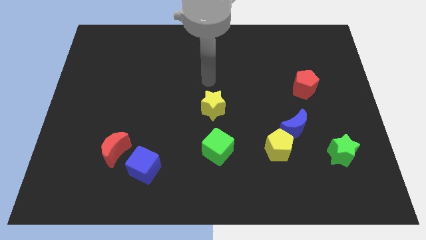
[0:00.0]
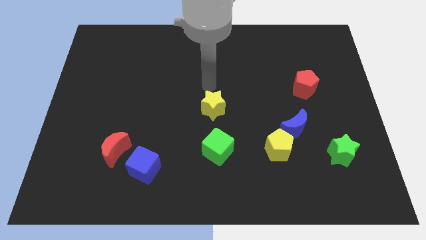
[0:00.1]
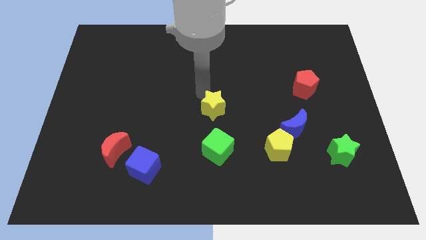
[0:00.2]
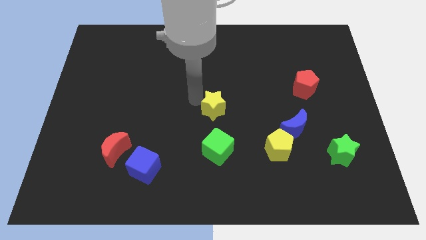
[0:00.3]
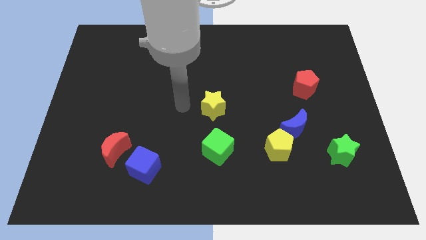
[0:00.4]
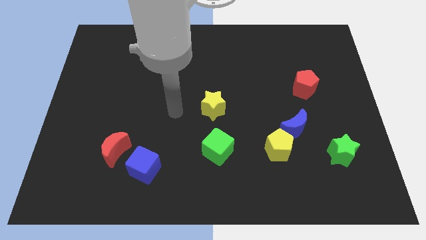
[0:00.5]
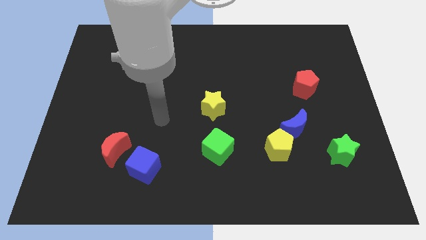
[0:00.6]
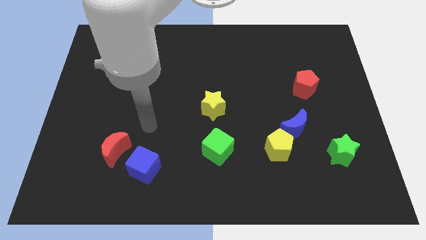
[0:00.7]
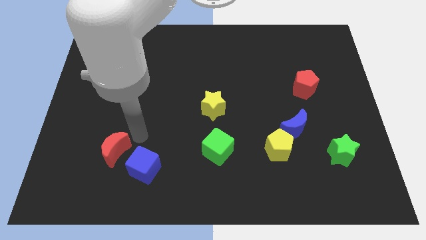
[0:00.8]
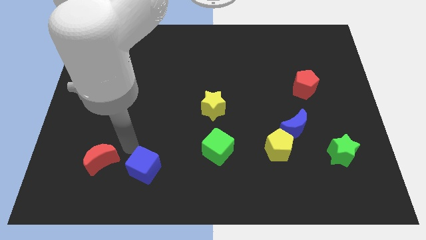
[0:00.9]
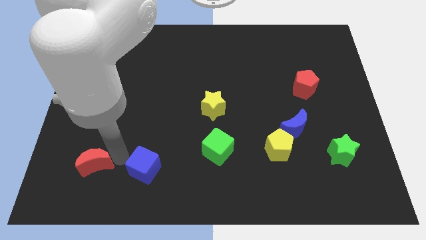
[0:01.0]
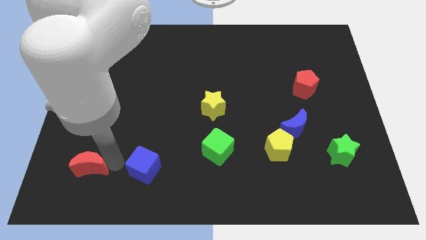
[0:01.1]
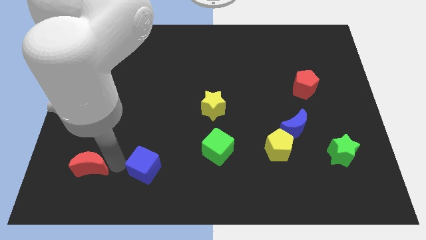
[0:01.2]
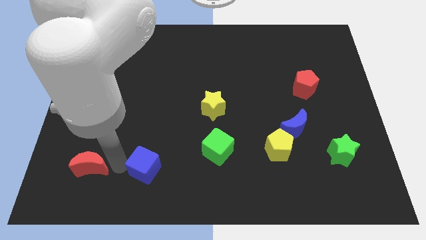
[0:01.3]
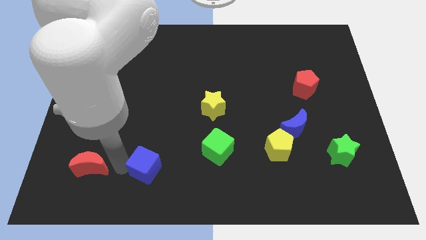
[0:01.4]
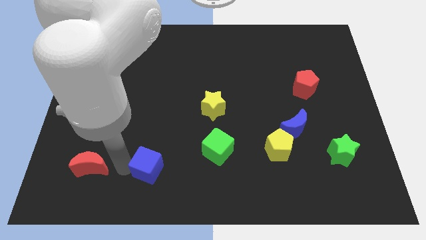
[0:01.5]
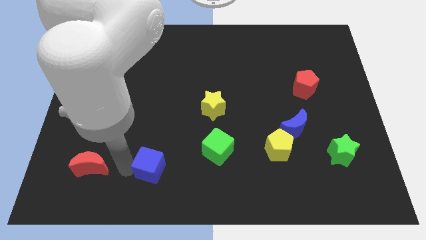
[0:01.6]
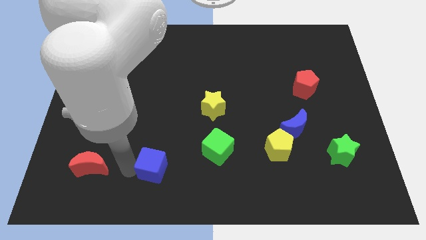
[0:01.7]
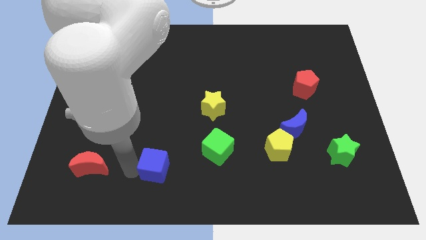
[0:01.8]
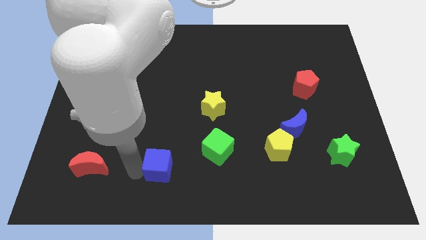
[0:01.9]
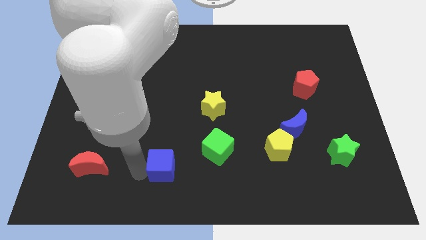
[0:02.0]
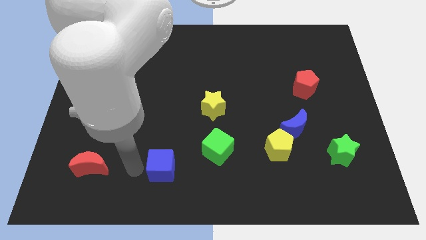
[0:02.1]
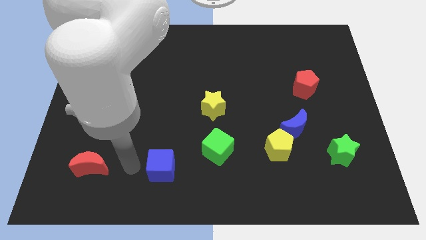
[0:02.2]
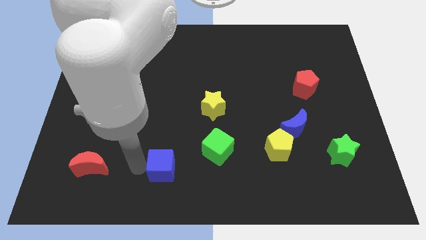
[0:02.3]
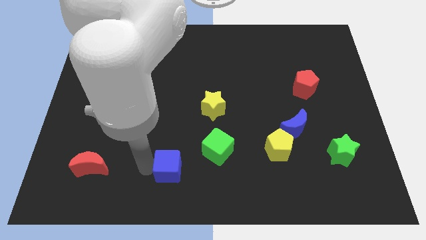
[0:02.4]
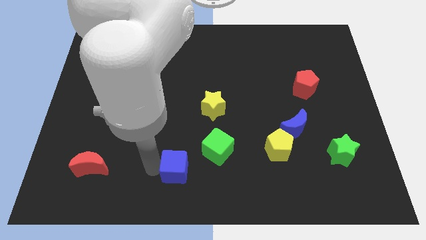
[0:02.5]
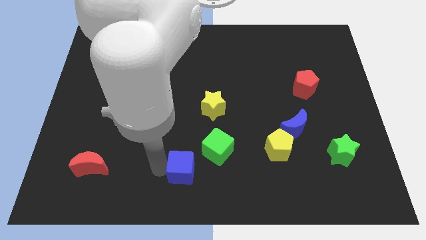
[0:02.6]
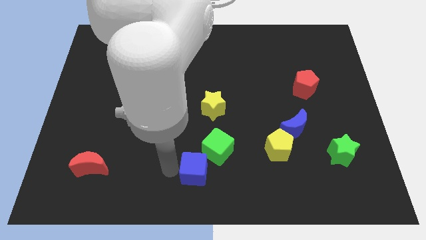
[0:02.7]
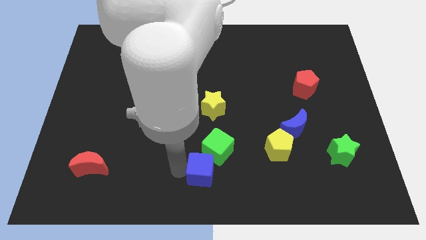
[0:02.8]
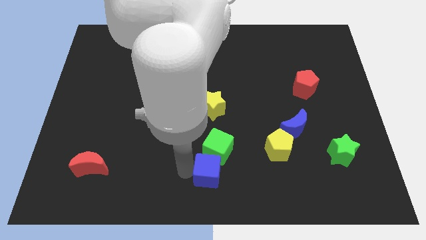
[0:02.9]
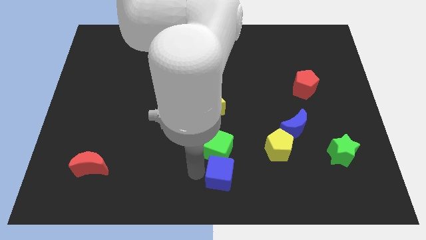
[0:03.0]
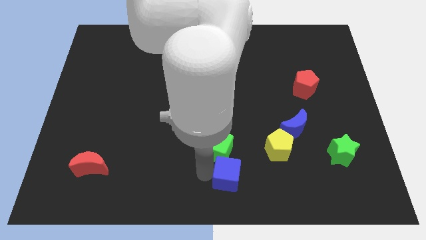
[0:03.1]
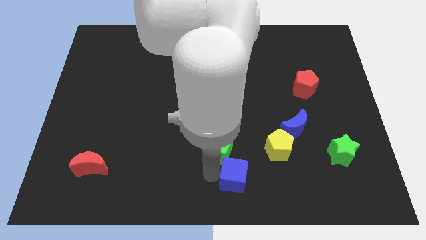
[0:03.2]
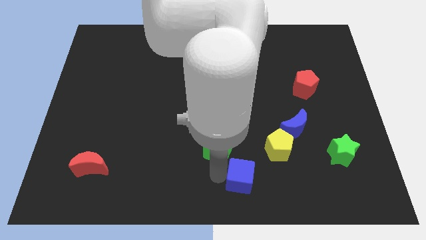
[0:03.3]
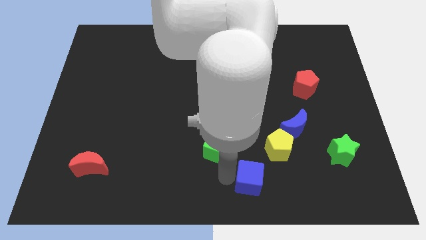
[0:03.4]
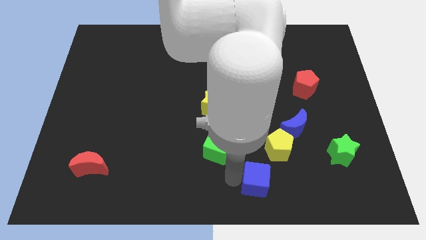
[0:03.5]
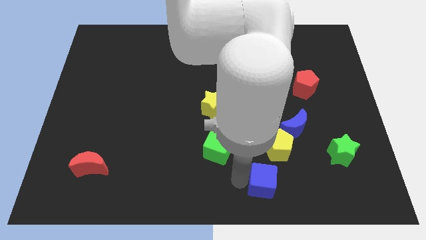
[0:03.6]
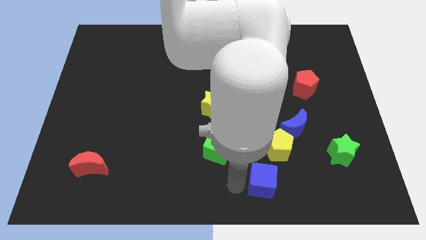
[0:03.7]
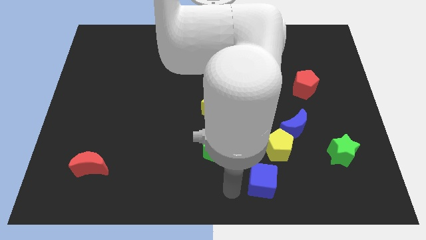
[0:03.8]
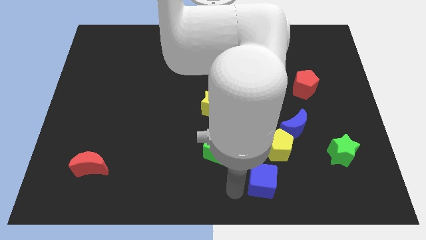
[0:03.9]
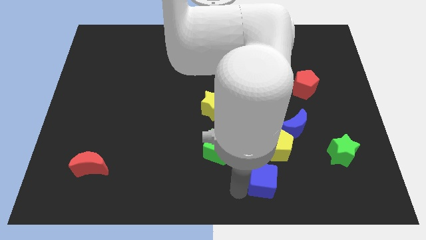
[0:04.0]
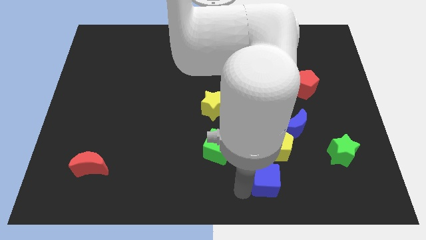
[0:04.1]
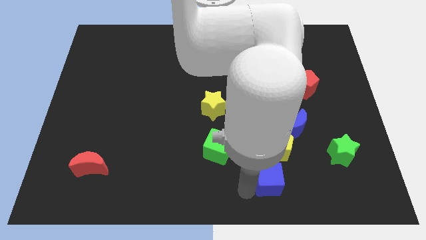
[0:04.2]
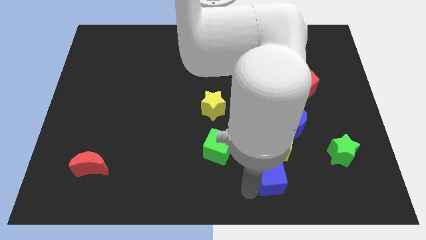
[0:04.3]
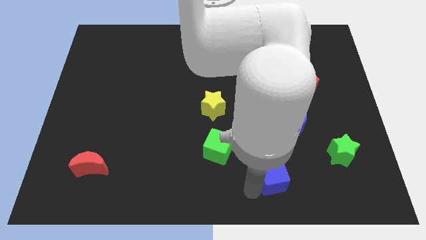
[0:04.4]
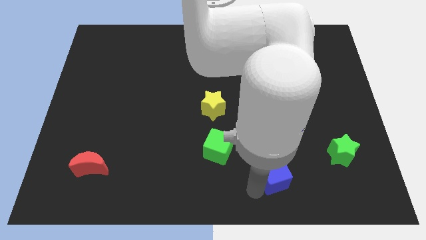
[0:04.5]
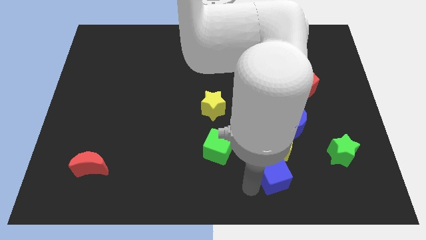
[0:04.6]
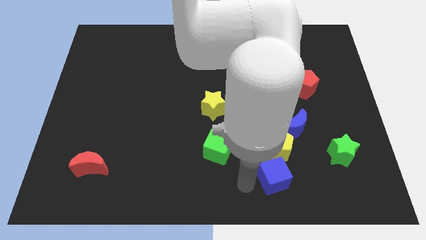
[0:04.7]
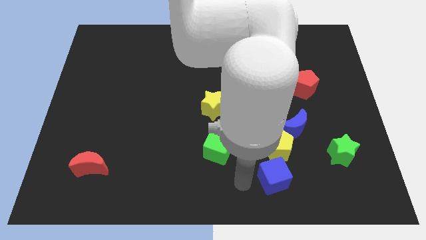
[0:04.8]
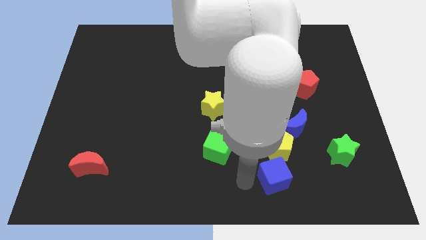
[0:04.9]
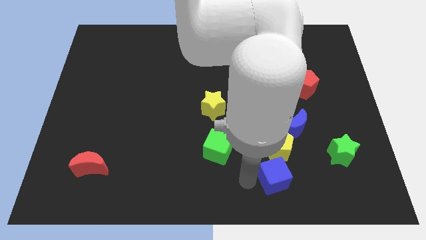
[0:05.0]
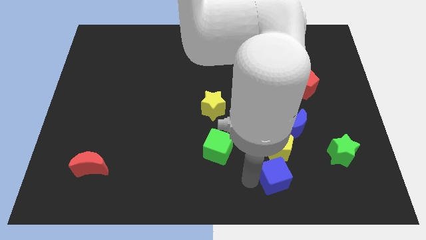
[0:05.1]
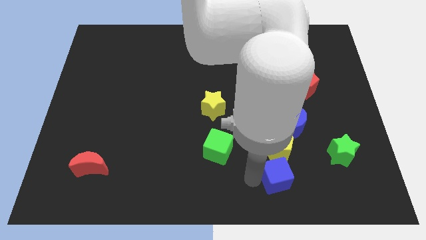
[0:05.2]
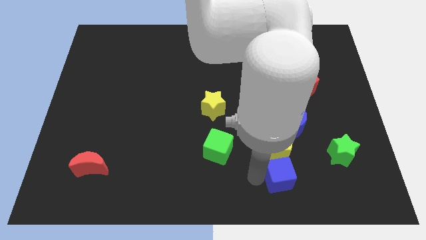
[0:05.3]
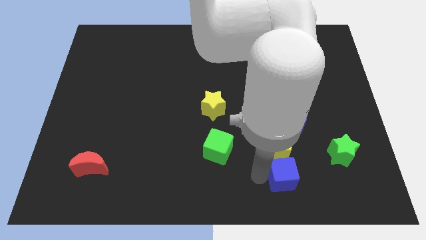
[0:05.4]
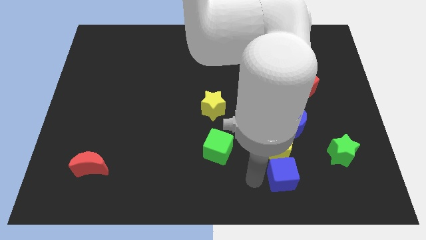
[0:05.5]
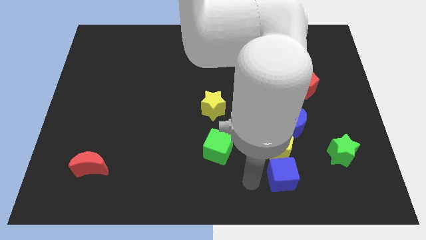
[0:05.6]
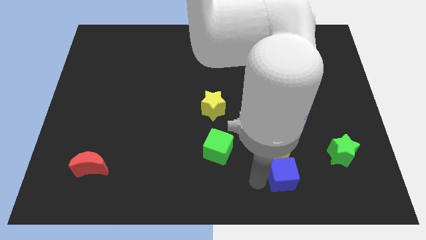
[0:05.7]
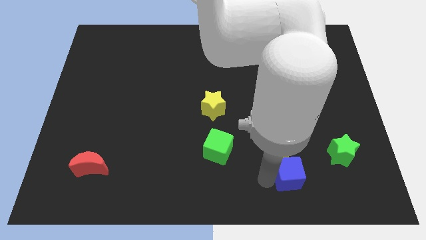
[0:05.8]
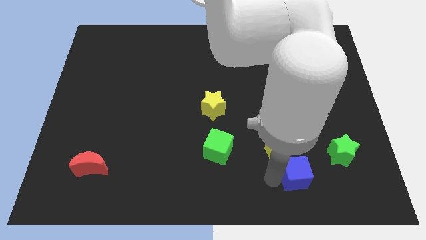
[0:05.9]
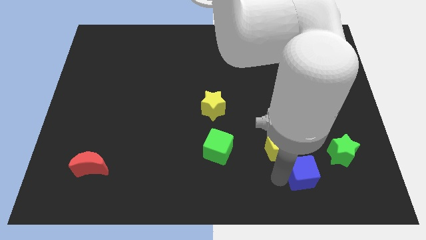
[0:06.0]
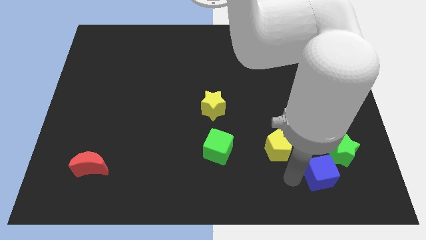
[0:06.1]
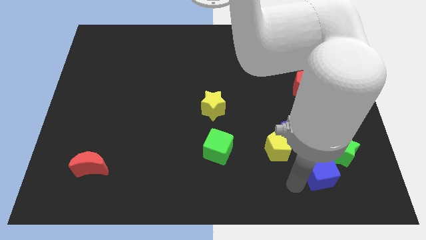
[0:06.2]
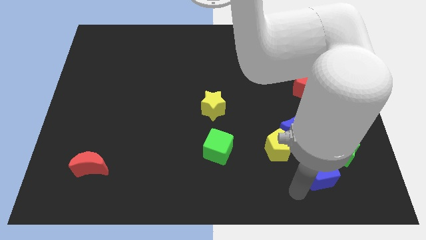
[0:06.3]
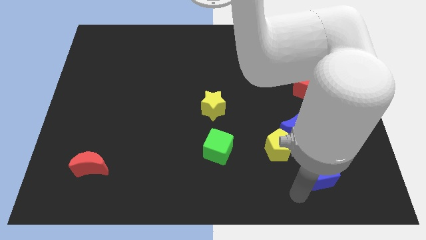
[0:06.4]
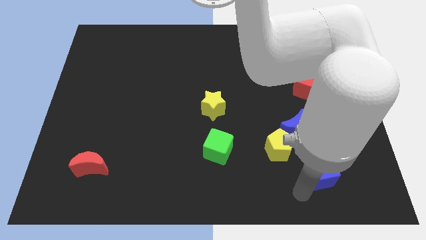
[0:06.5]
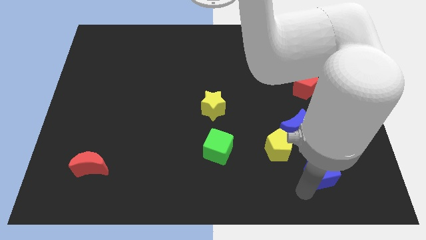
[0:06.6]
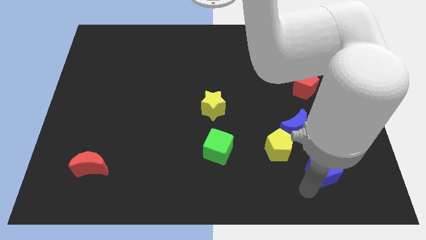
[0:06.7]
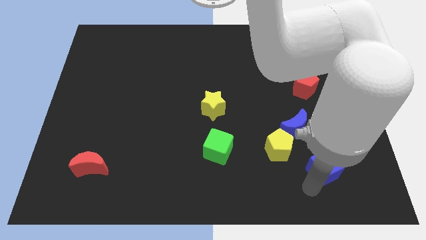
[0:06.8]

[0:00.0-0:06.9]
put the blue cube close to the green star
